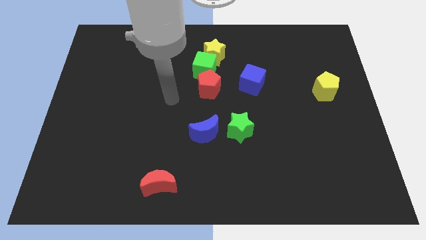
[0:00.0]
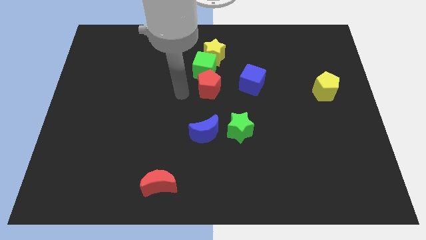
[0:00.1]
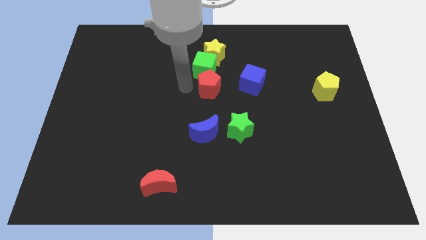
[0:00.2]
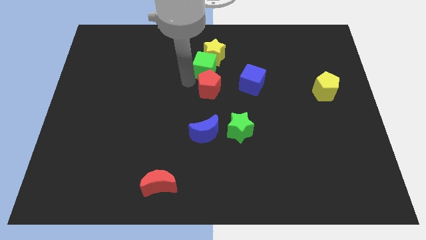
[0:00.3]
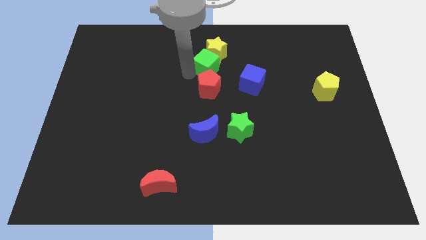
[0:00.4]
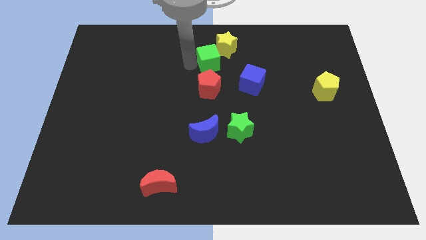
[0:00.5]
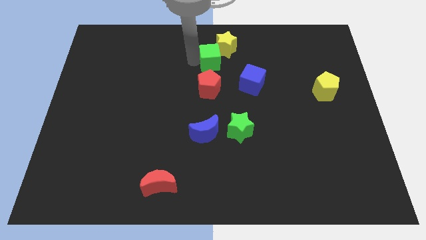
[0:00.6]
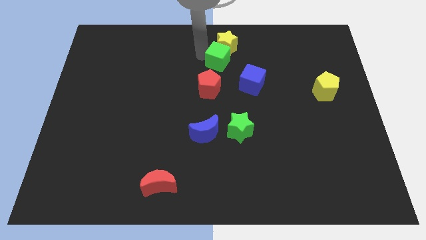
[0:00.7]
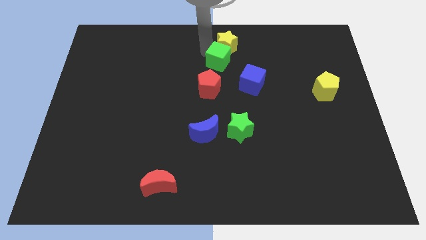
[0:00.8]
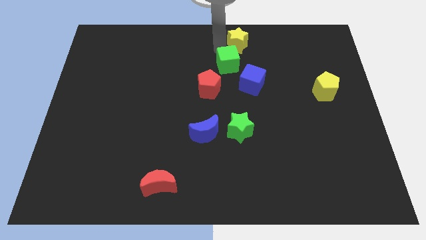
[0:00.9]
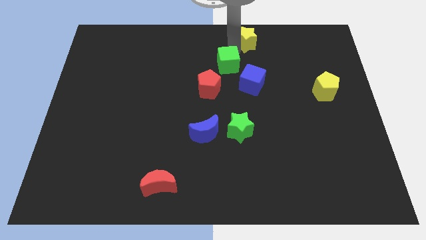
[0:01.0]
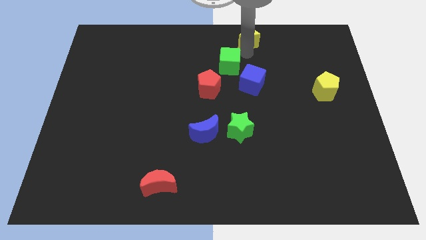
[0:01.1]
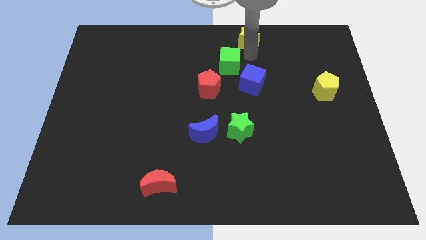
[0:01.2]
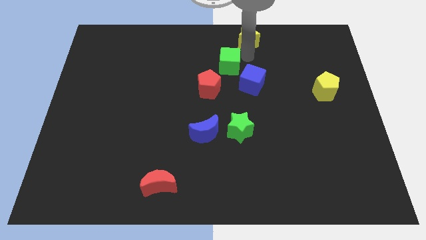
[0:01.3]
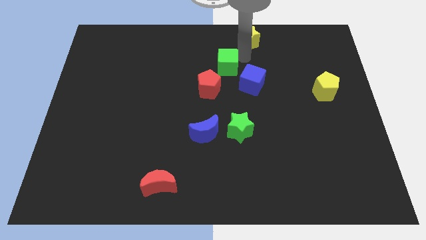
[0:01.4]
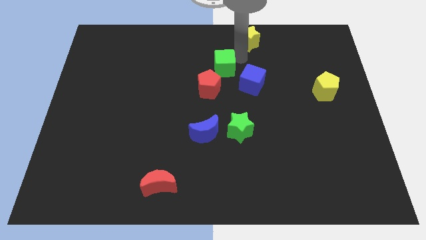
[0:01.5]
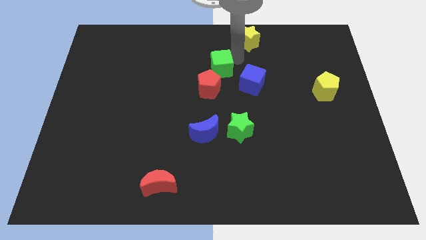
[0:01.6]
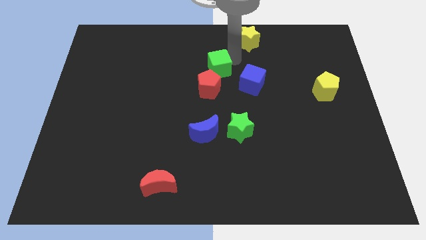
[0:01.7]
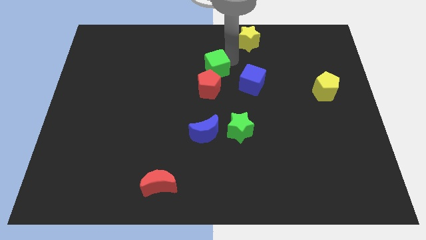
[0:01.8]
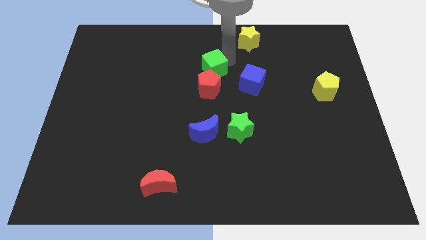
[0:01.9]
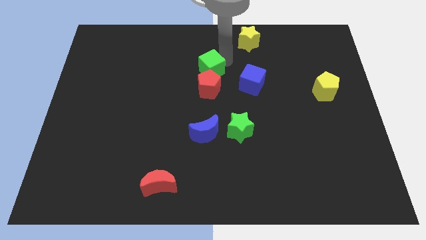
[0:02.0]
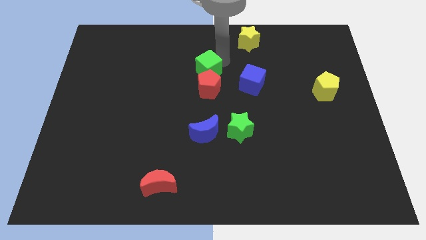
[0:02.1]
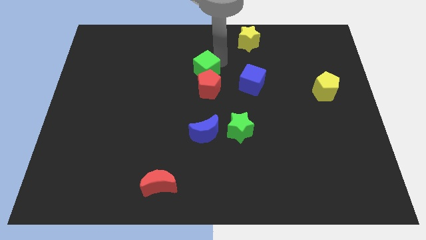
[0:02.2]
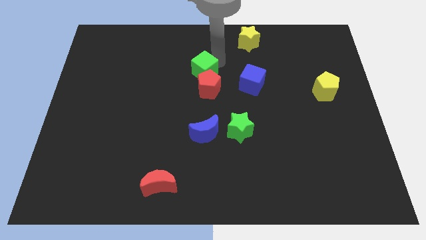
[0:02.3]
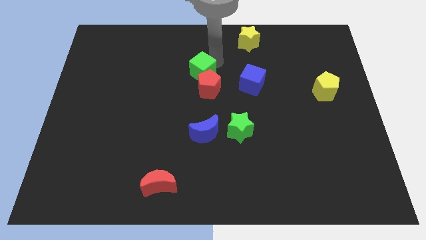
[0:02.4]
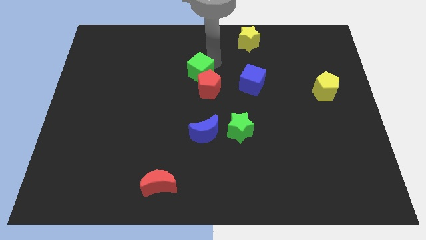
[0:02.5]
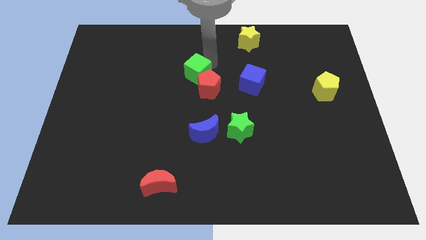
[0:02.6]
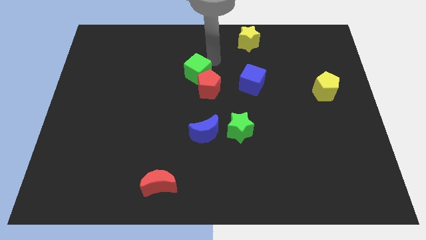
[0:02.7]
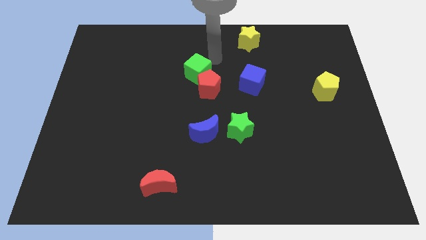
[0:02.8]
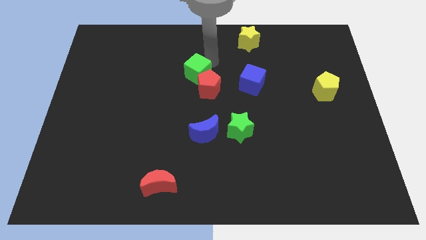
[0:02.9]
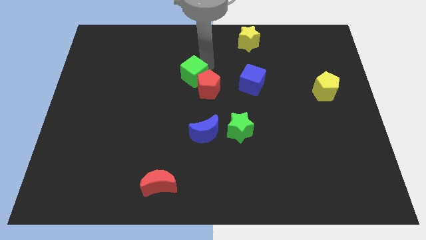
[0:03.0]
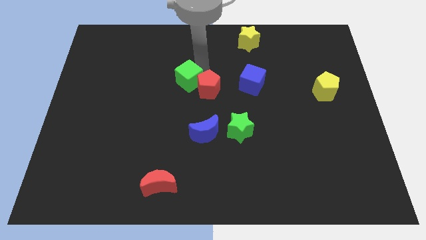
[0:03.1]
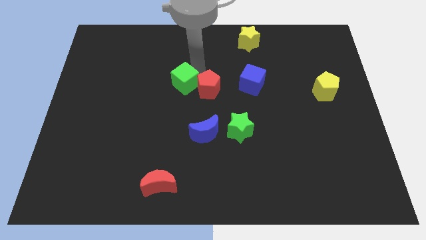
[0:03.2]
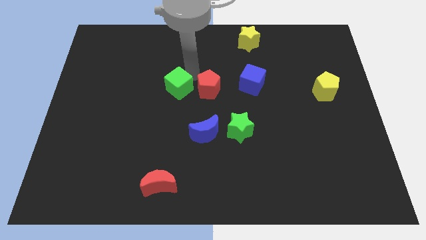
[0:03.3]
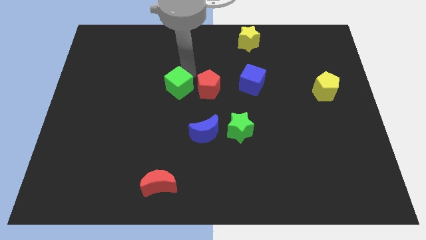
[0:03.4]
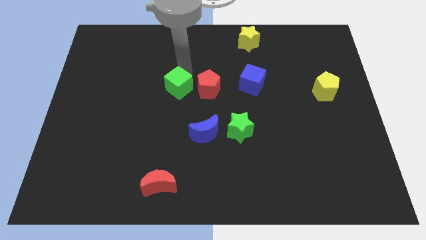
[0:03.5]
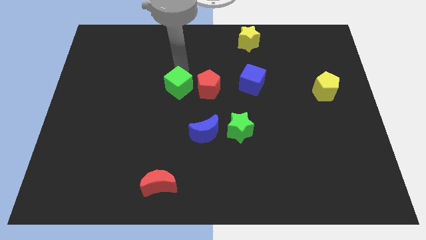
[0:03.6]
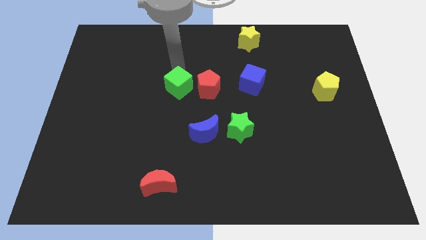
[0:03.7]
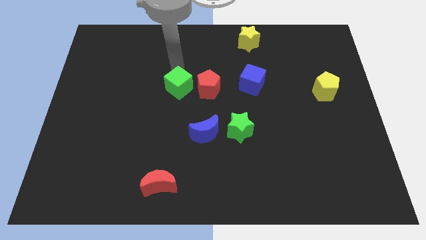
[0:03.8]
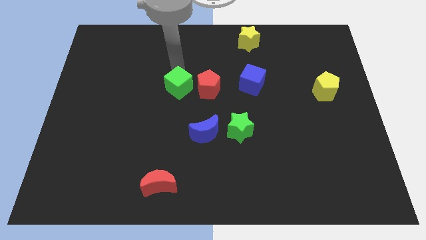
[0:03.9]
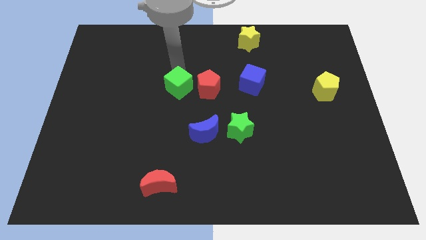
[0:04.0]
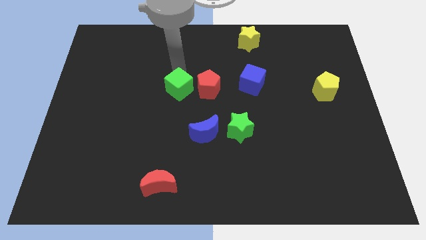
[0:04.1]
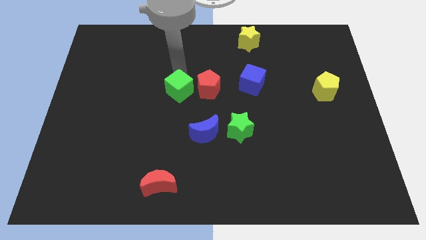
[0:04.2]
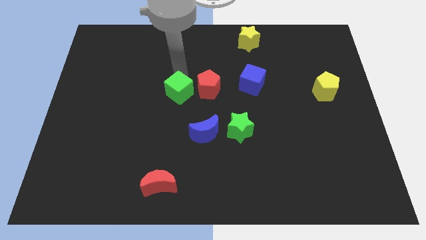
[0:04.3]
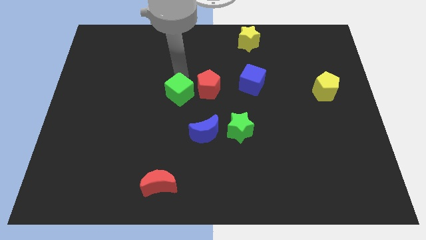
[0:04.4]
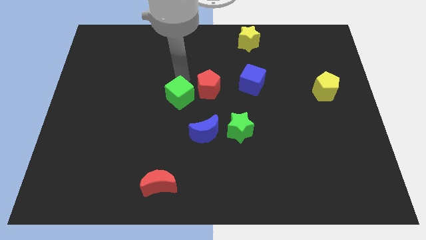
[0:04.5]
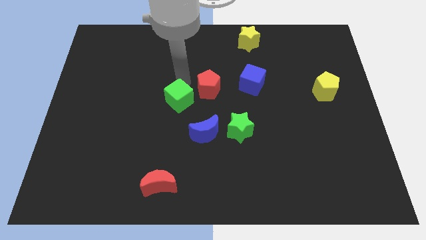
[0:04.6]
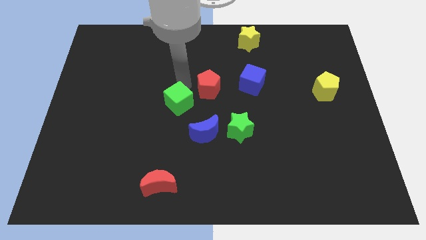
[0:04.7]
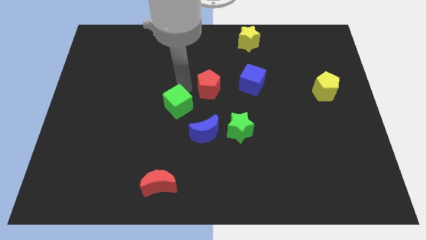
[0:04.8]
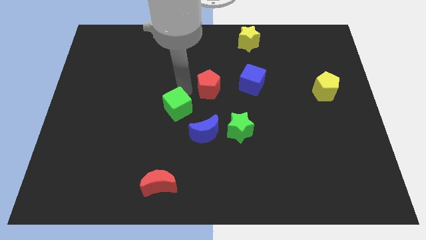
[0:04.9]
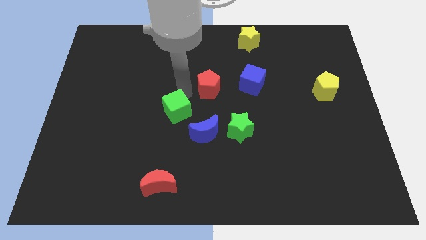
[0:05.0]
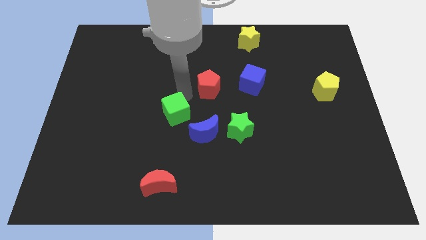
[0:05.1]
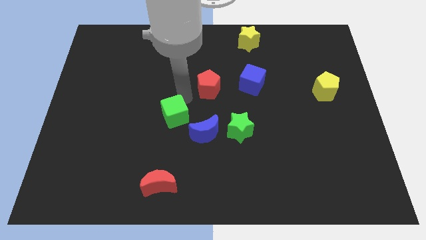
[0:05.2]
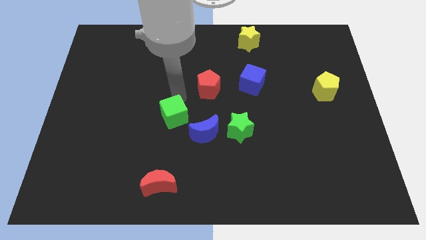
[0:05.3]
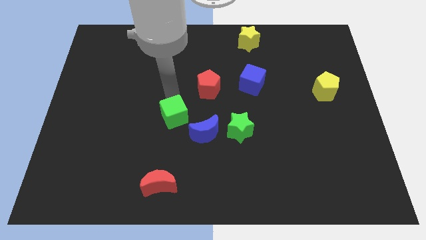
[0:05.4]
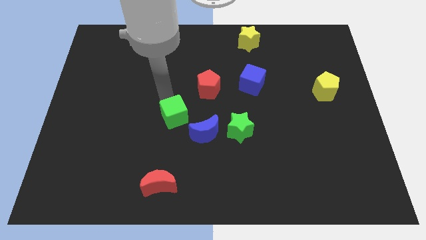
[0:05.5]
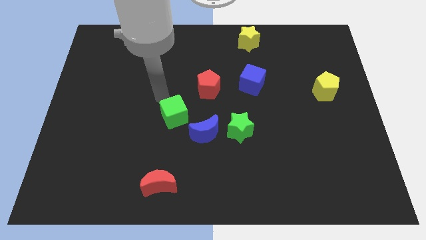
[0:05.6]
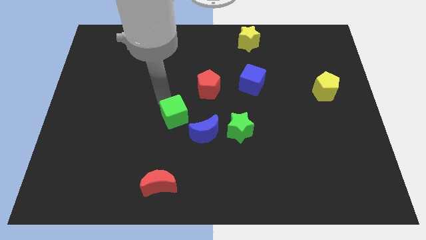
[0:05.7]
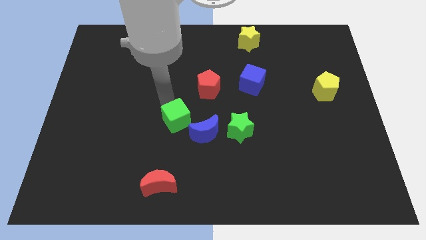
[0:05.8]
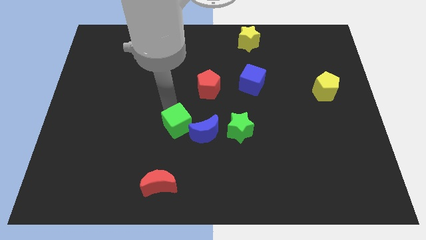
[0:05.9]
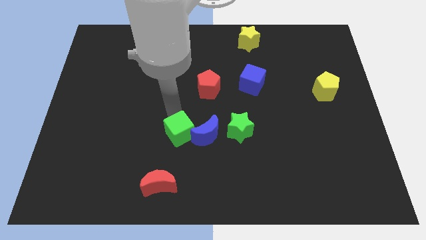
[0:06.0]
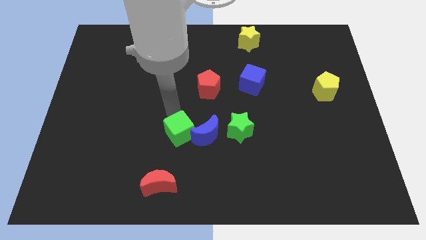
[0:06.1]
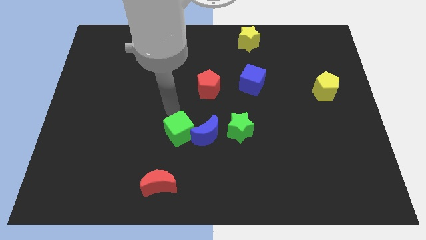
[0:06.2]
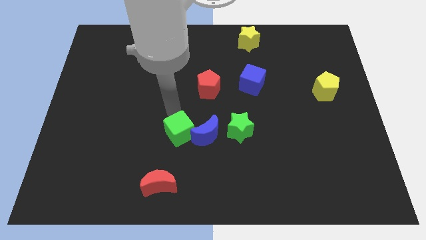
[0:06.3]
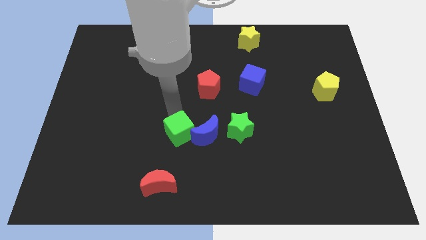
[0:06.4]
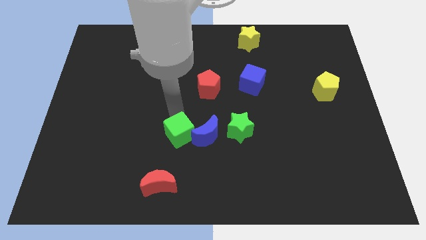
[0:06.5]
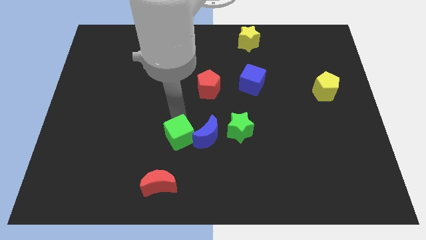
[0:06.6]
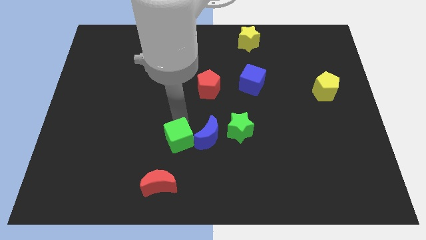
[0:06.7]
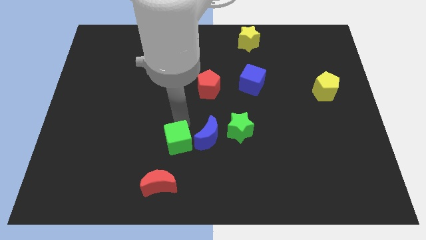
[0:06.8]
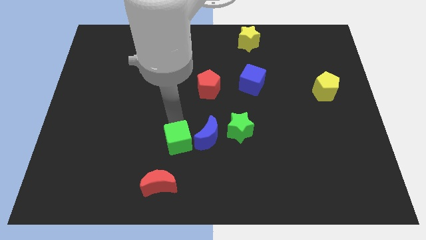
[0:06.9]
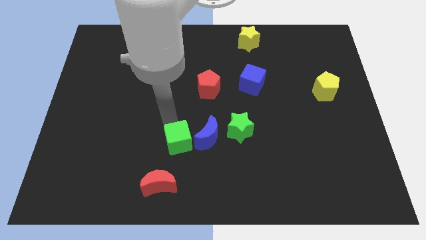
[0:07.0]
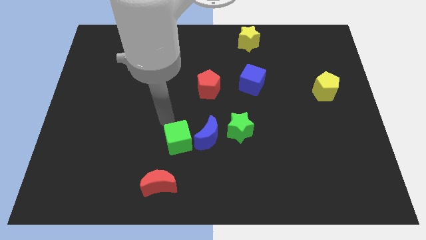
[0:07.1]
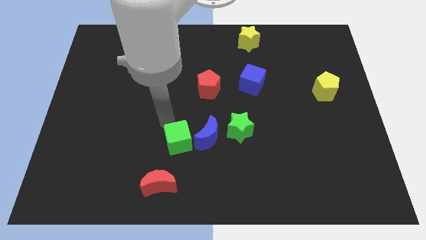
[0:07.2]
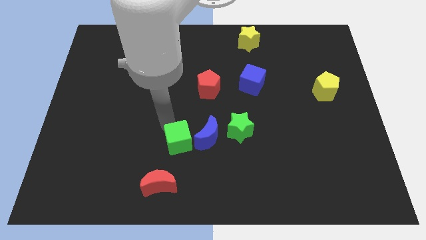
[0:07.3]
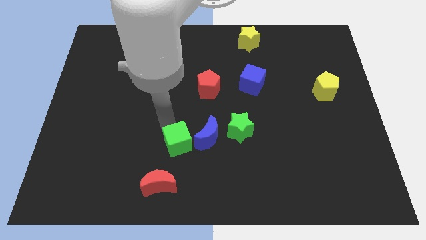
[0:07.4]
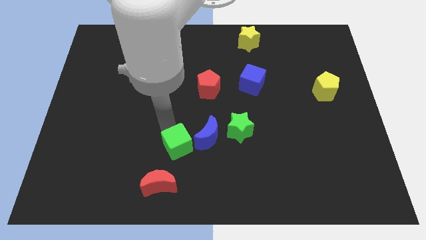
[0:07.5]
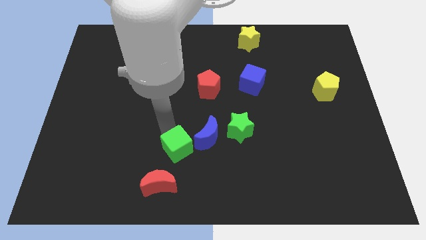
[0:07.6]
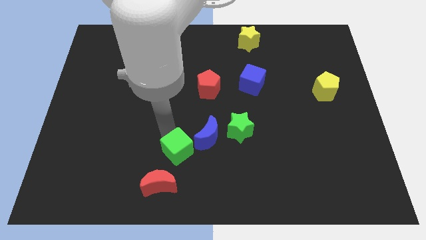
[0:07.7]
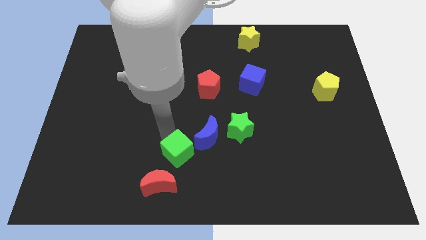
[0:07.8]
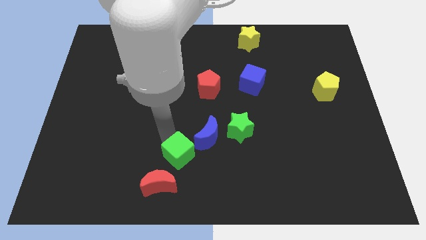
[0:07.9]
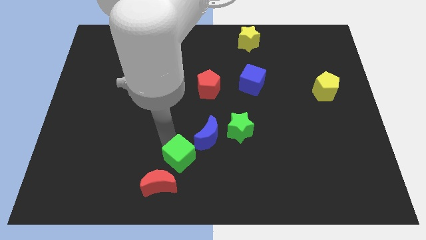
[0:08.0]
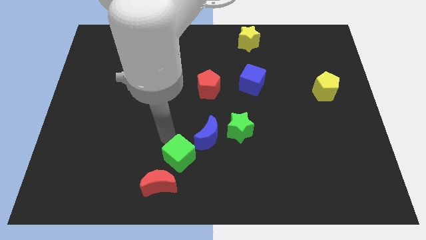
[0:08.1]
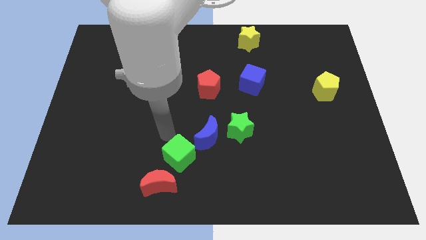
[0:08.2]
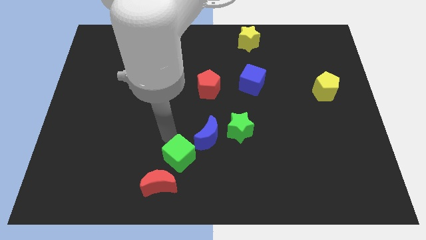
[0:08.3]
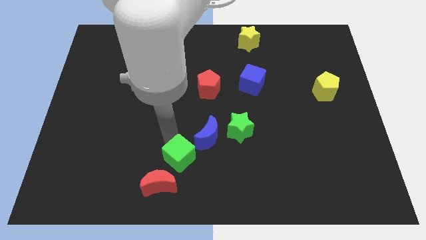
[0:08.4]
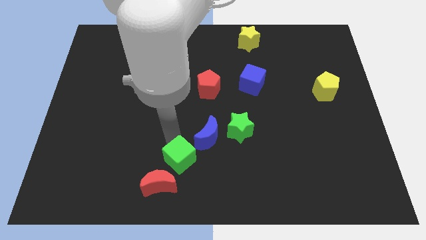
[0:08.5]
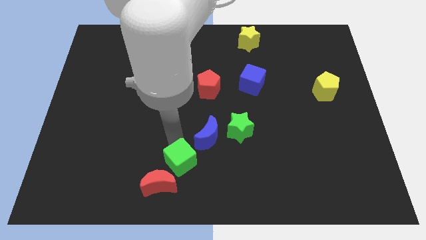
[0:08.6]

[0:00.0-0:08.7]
move the green cube to the bottom side
